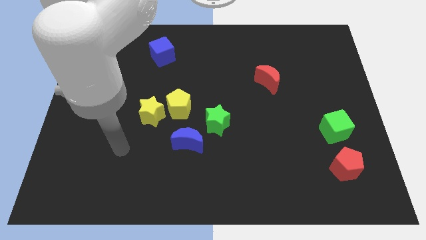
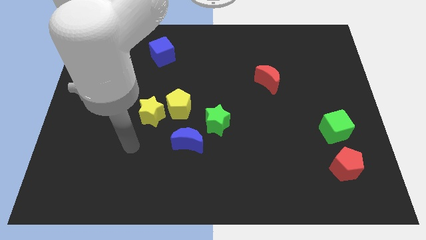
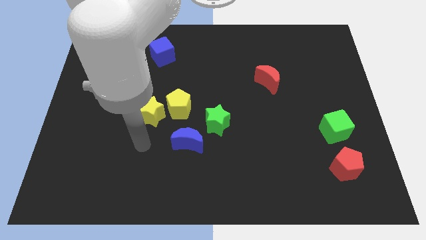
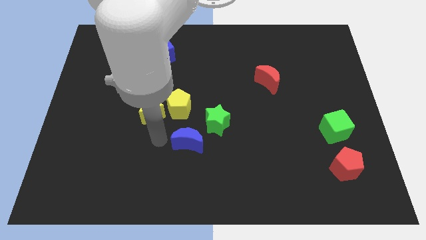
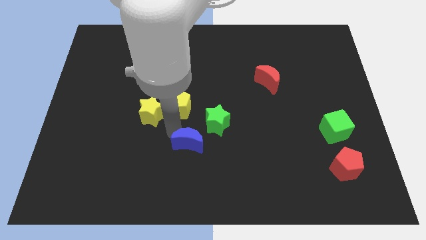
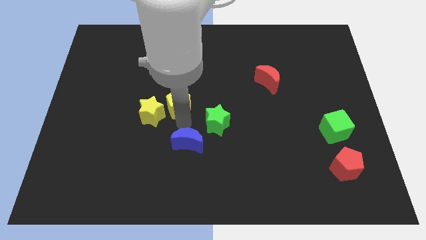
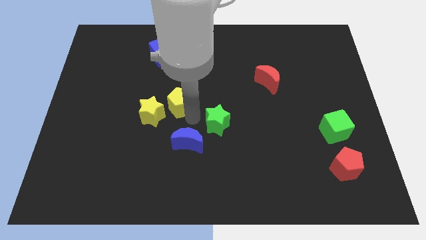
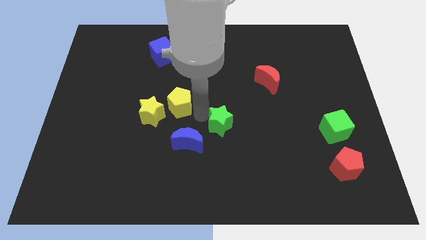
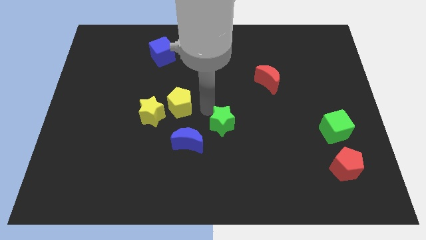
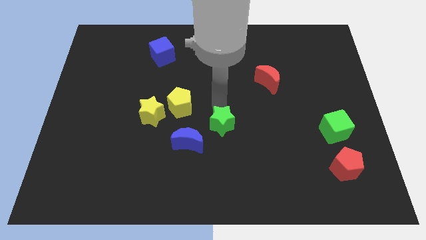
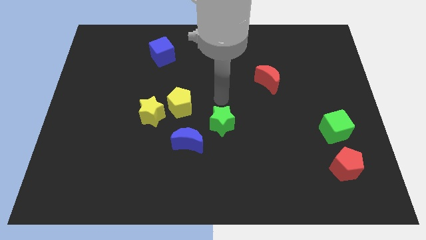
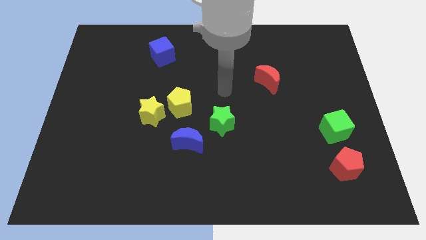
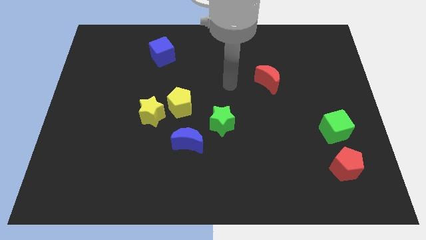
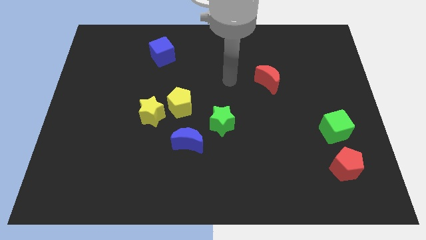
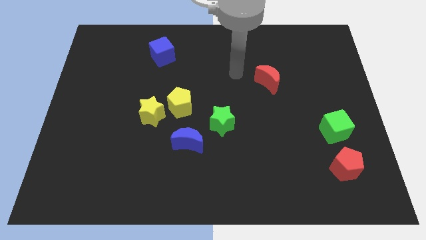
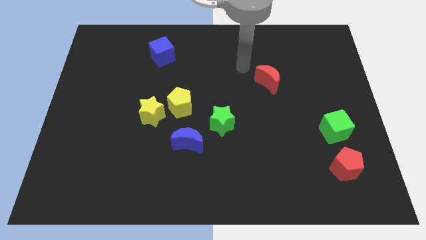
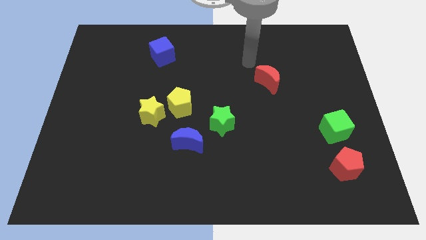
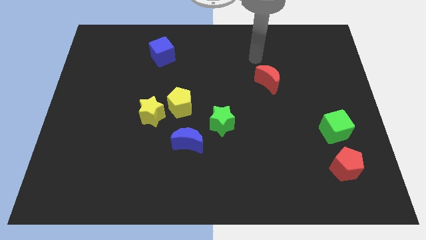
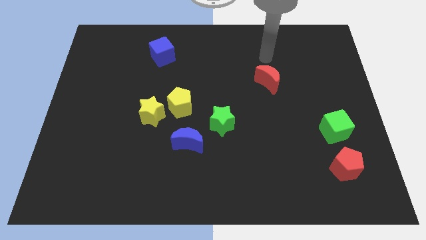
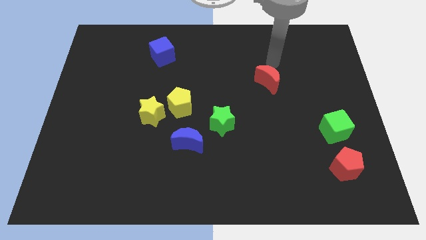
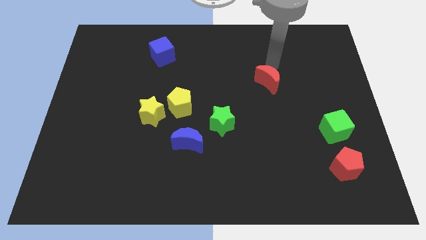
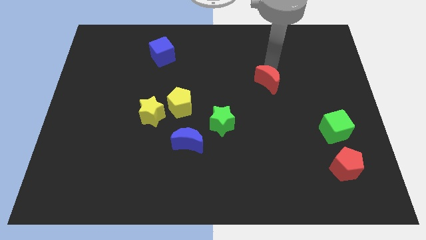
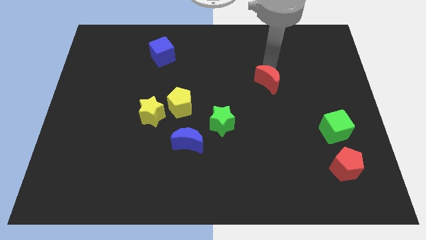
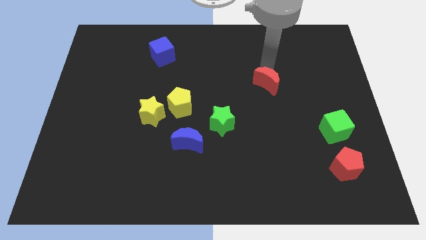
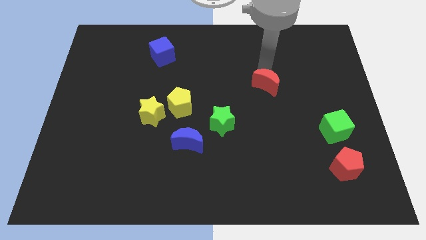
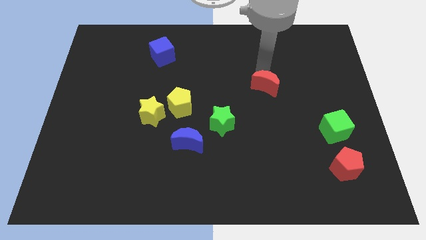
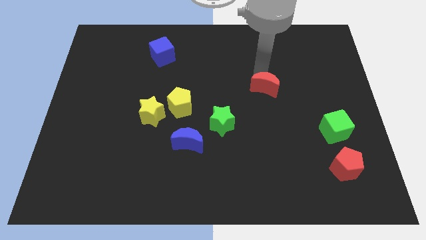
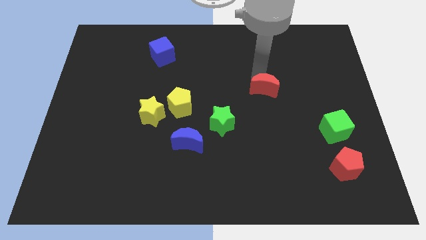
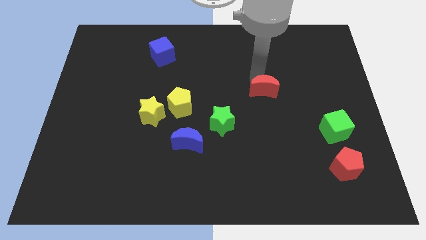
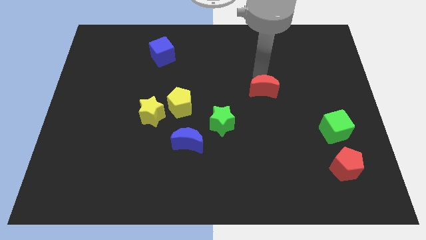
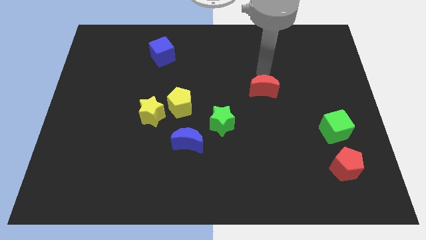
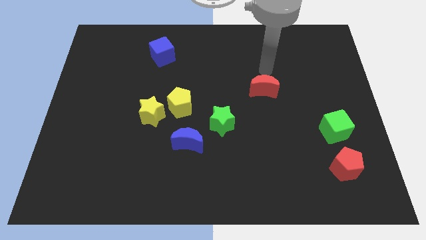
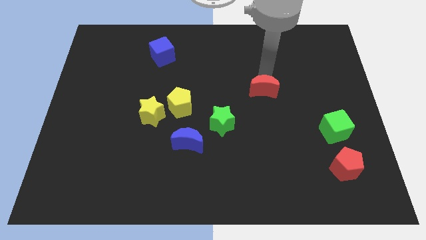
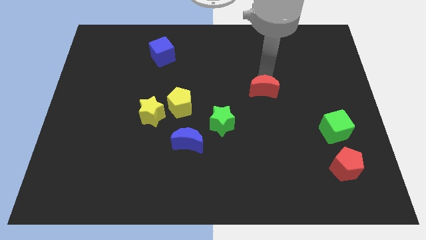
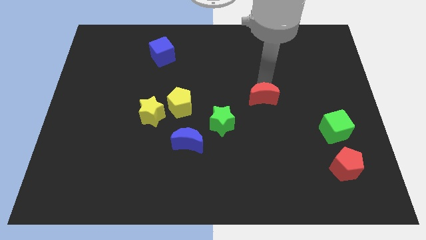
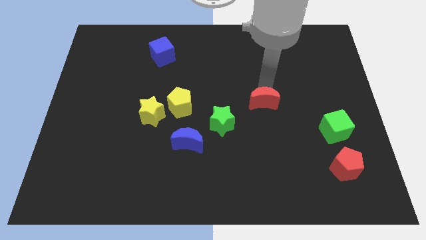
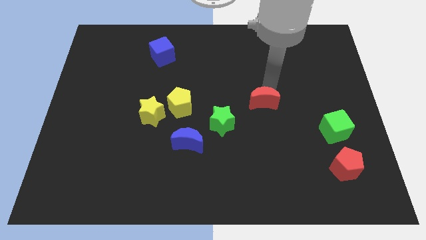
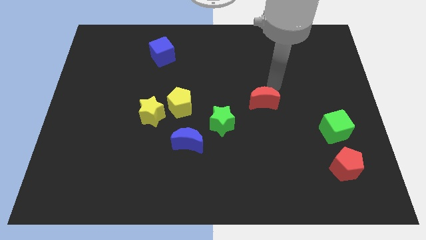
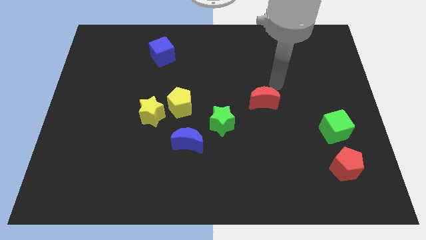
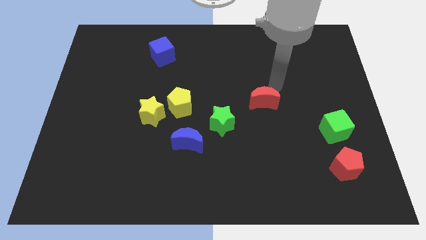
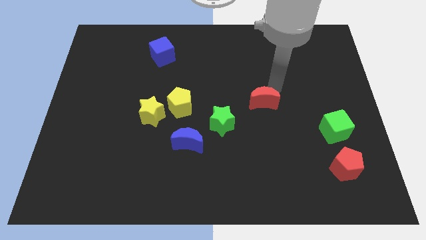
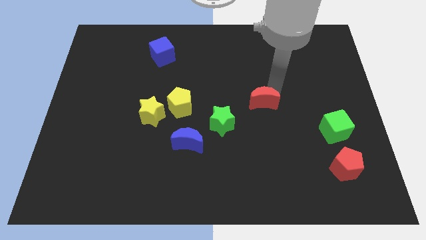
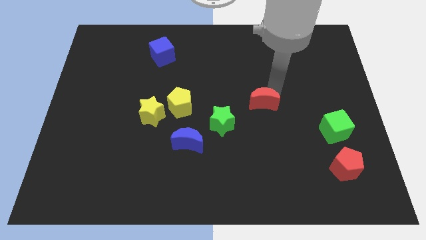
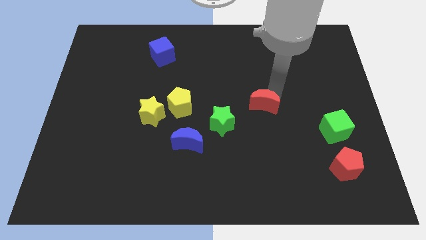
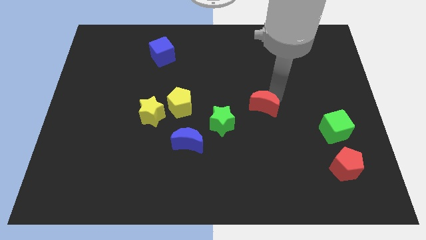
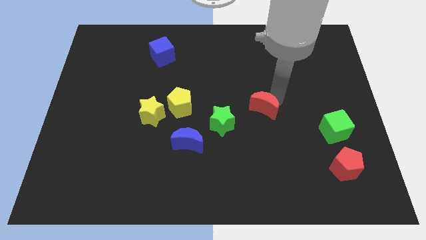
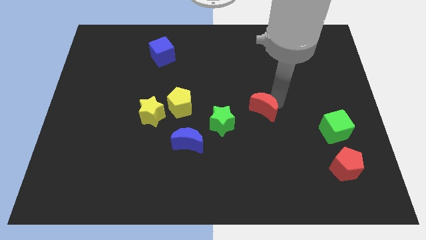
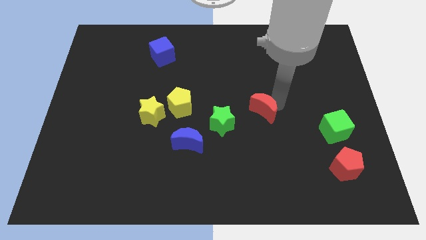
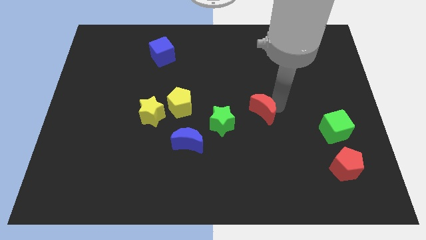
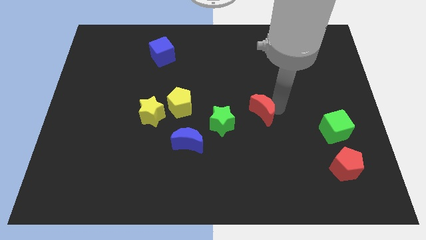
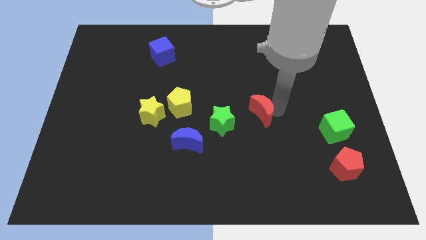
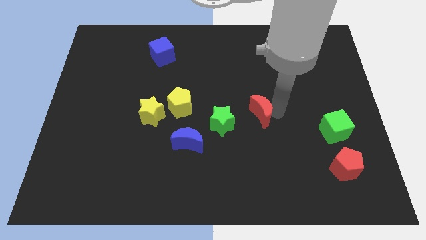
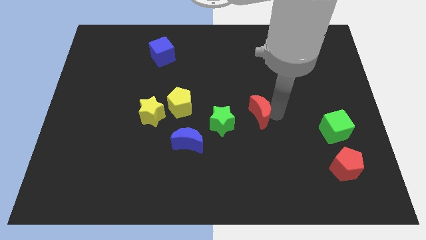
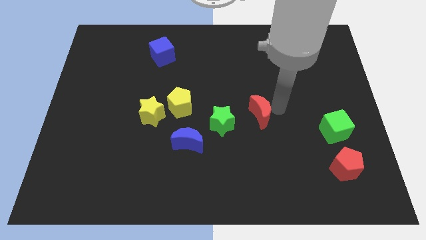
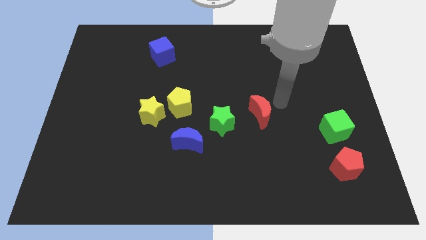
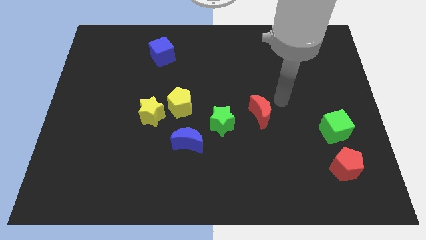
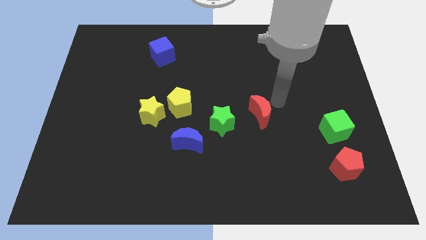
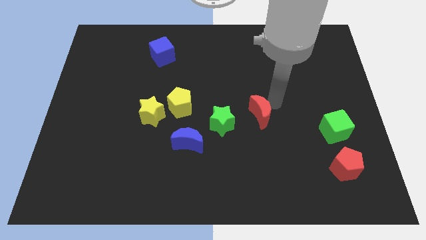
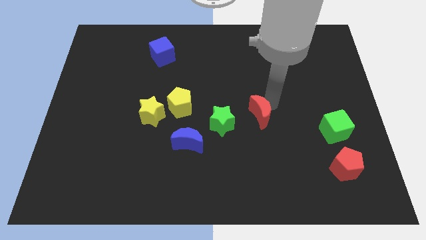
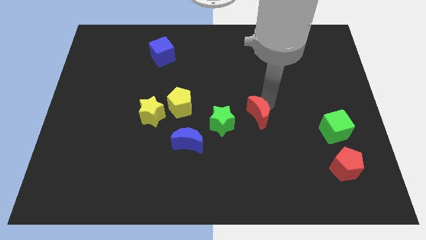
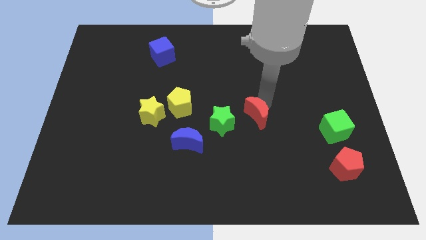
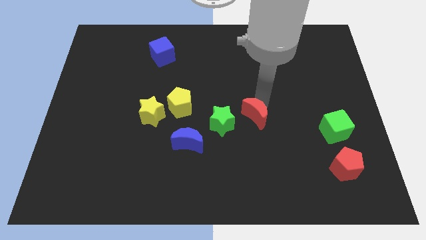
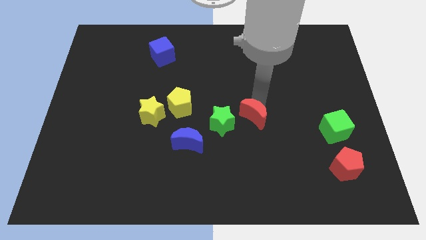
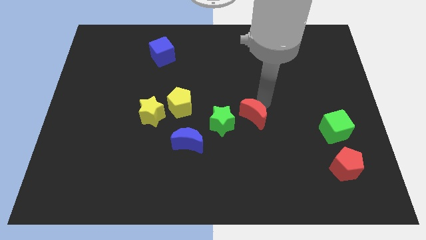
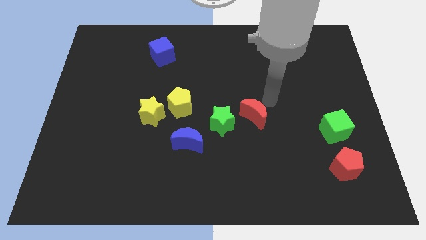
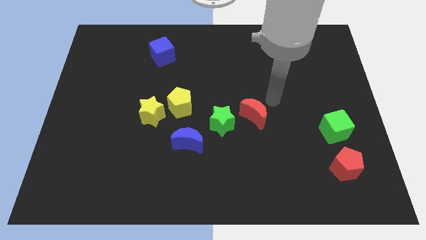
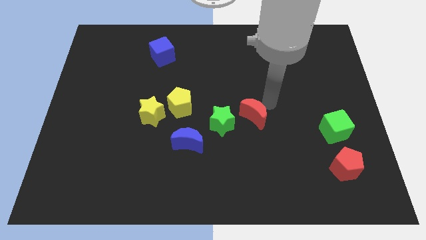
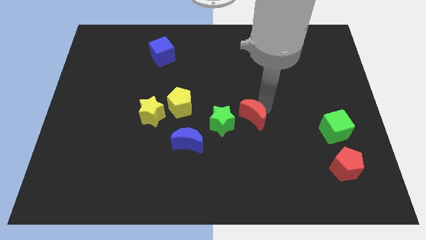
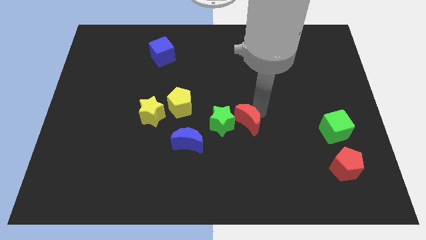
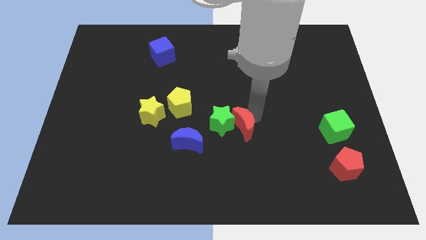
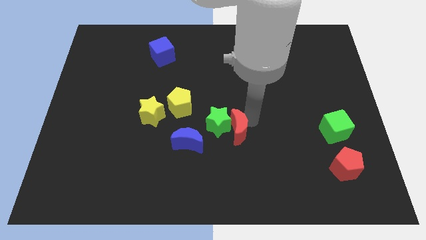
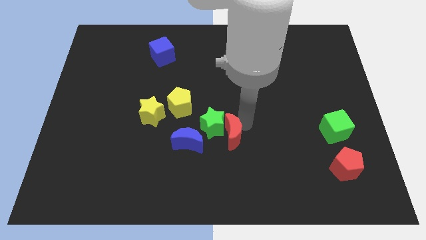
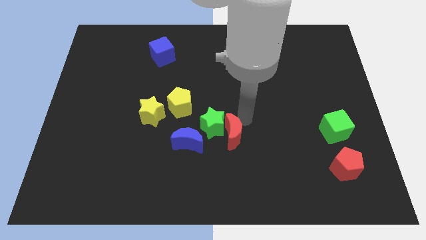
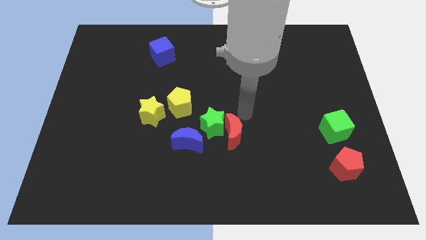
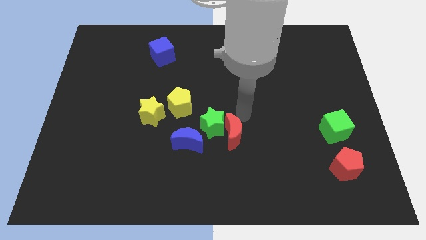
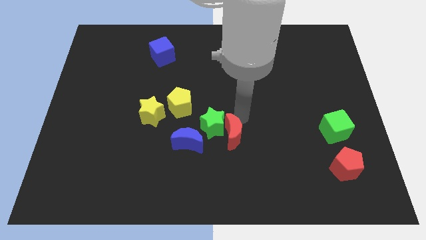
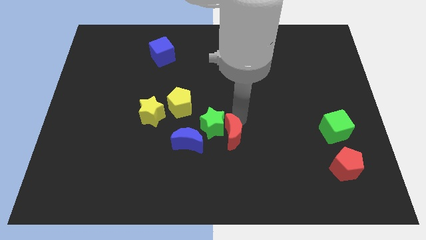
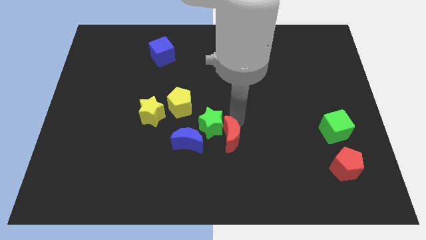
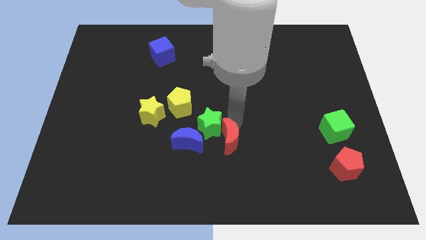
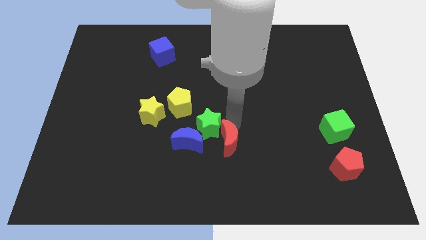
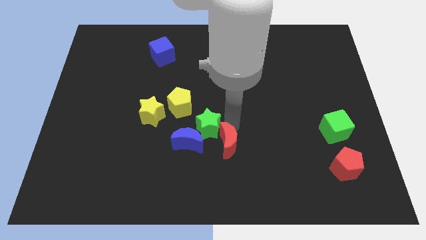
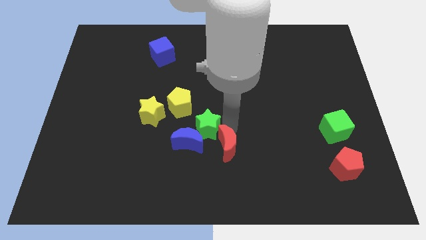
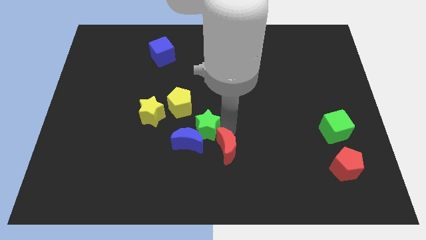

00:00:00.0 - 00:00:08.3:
move the red moon diagonally down and to the left
